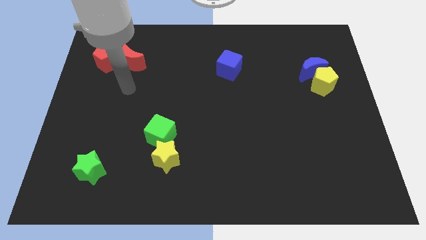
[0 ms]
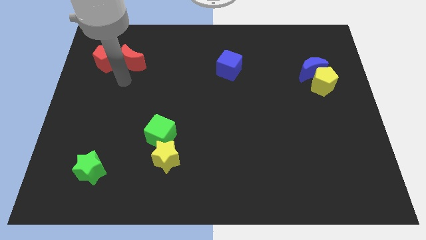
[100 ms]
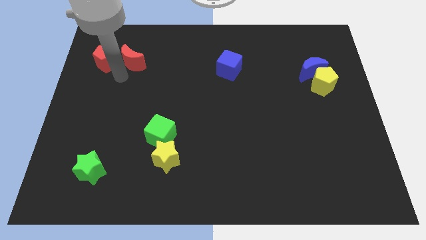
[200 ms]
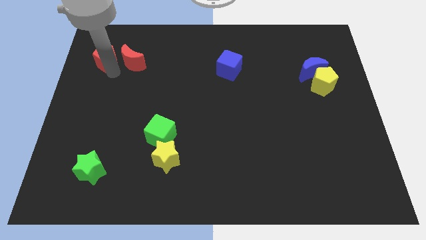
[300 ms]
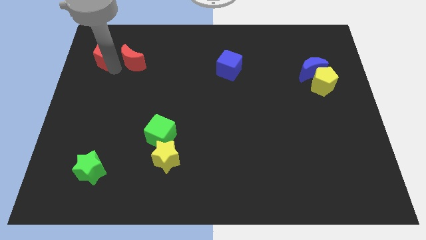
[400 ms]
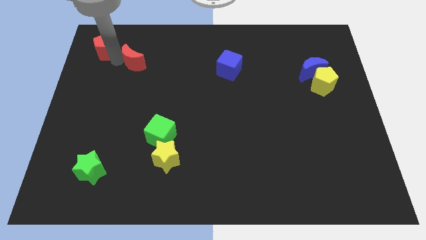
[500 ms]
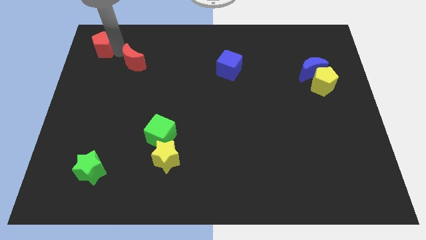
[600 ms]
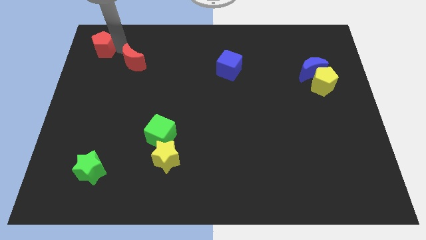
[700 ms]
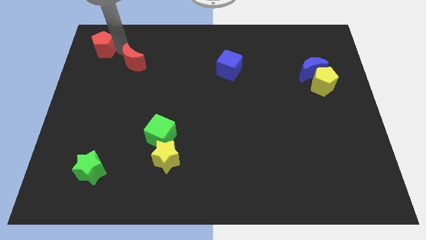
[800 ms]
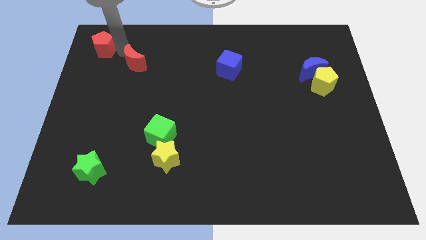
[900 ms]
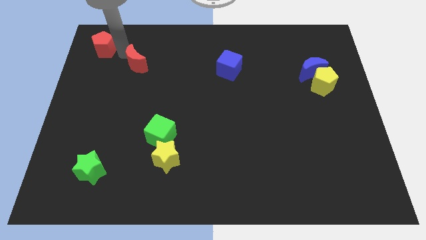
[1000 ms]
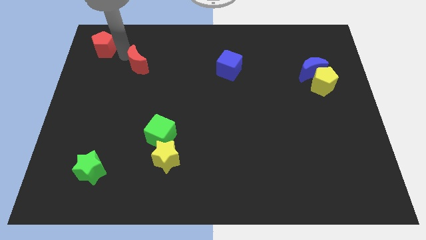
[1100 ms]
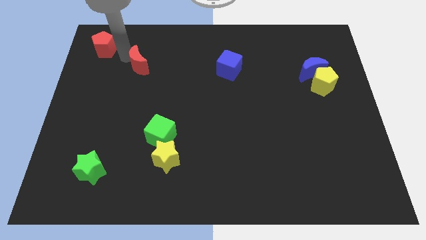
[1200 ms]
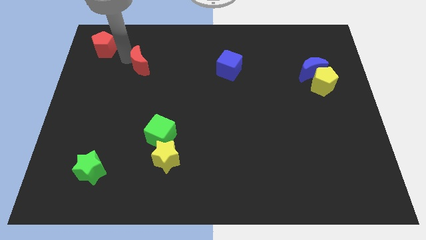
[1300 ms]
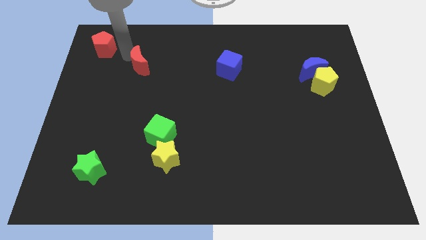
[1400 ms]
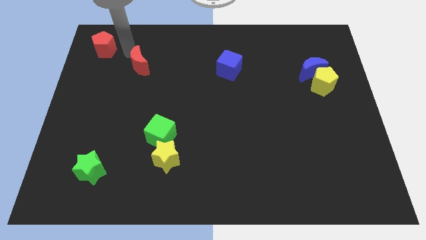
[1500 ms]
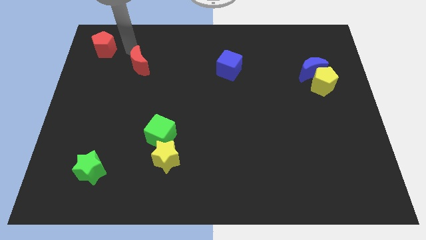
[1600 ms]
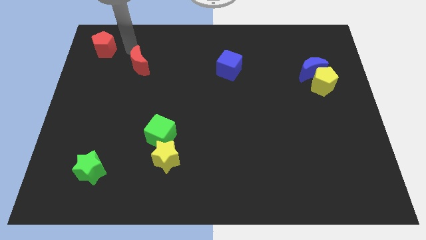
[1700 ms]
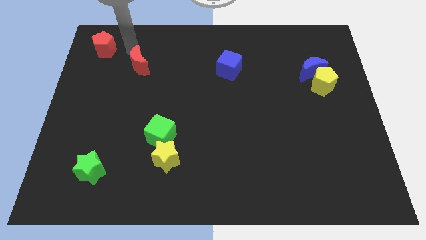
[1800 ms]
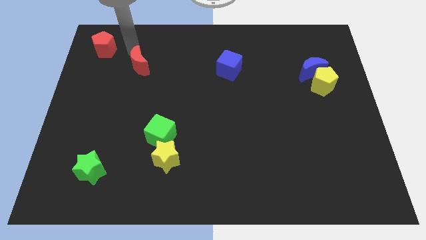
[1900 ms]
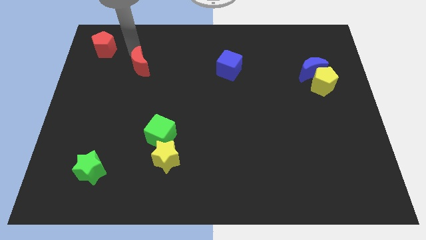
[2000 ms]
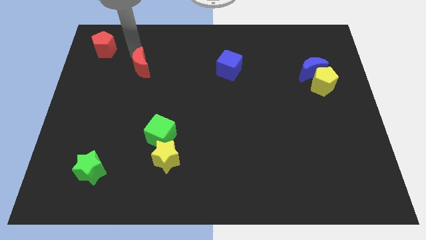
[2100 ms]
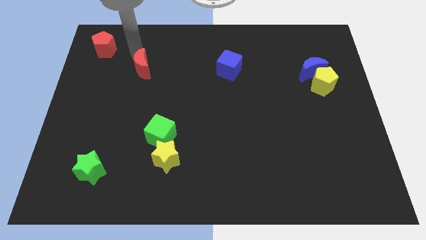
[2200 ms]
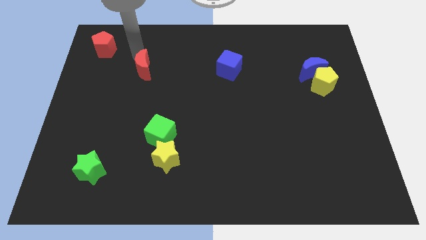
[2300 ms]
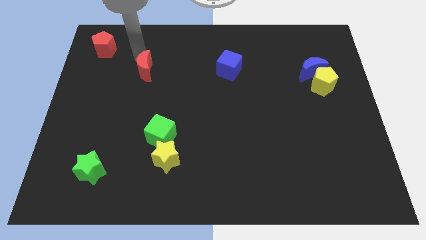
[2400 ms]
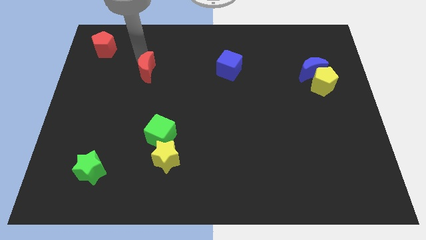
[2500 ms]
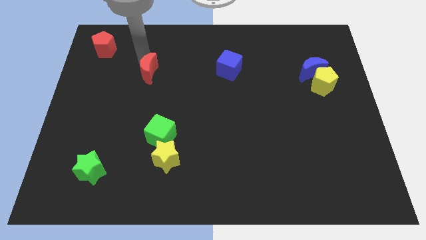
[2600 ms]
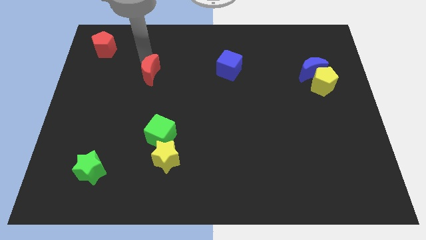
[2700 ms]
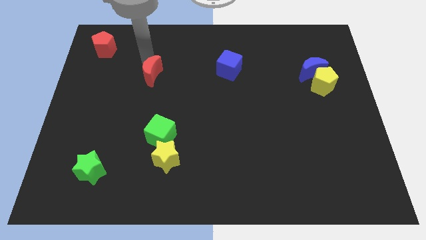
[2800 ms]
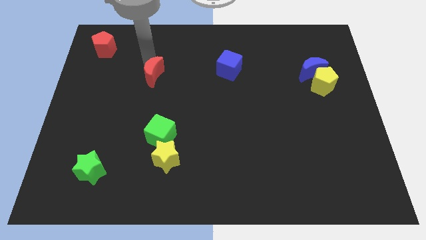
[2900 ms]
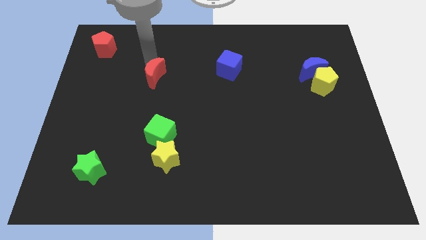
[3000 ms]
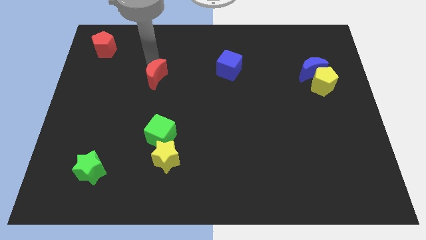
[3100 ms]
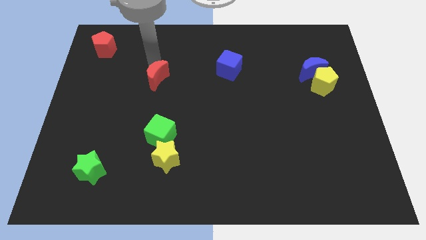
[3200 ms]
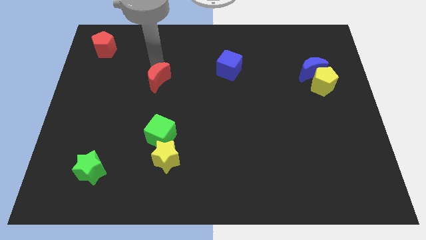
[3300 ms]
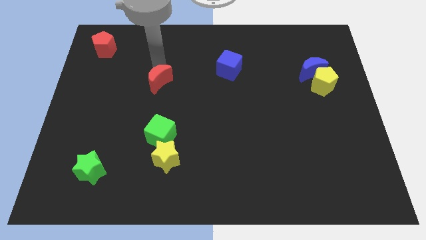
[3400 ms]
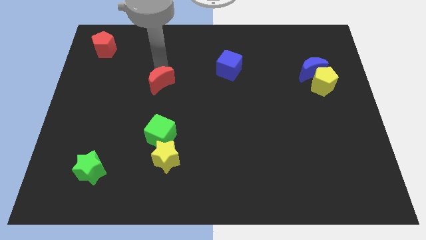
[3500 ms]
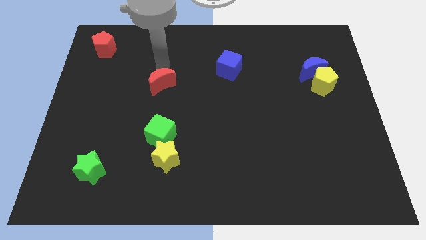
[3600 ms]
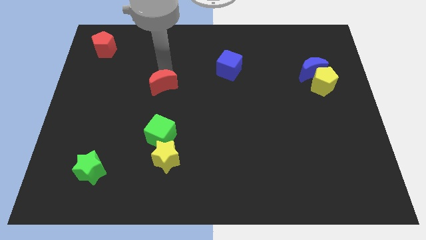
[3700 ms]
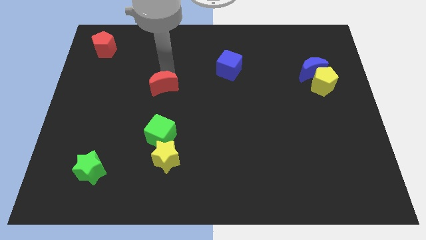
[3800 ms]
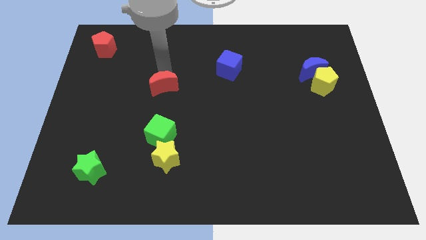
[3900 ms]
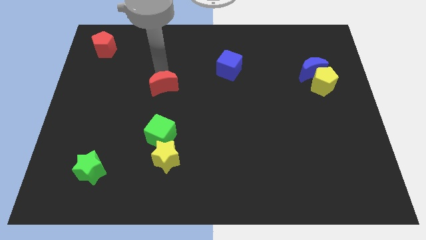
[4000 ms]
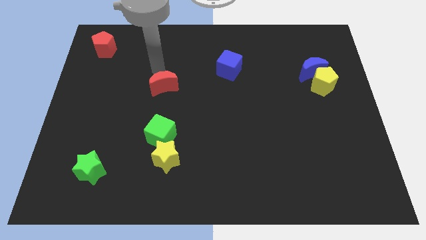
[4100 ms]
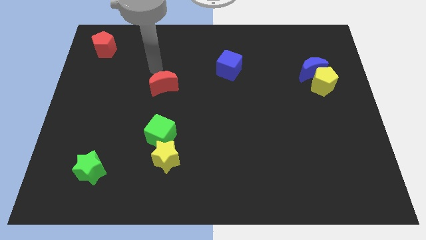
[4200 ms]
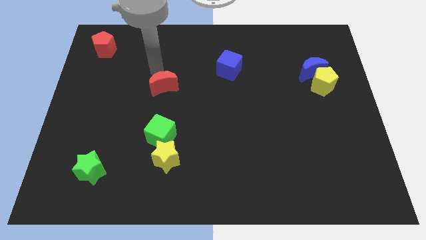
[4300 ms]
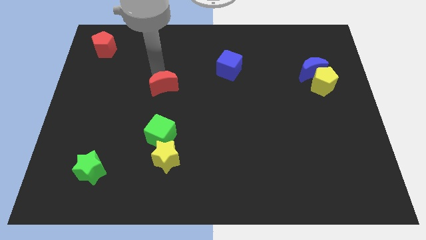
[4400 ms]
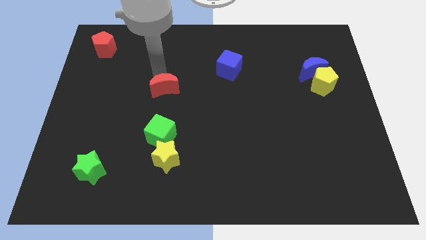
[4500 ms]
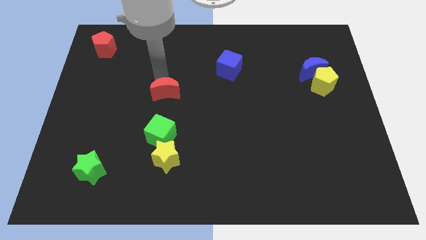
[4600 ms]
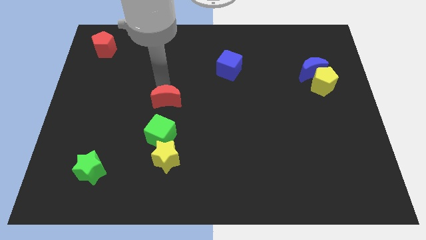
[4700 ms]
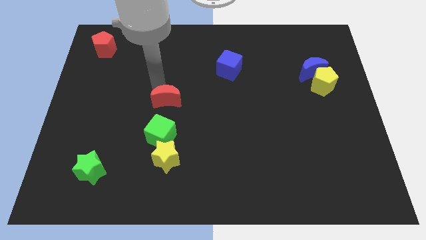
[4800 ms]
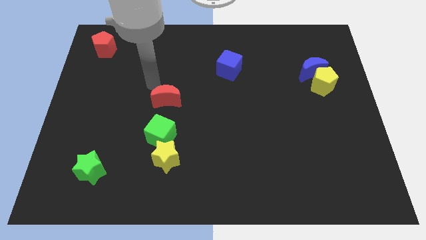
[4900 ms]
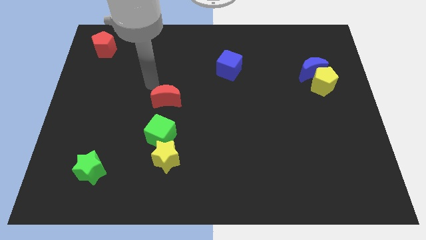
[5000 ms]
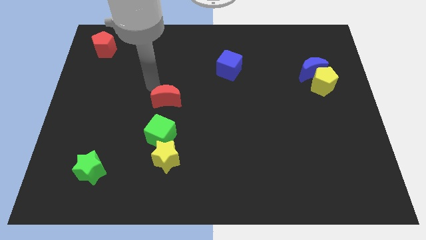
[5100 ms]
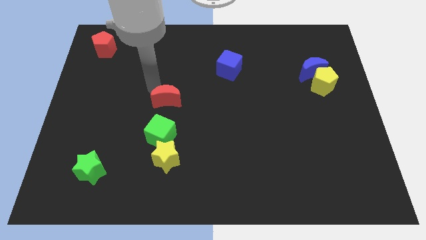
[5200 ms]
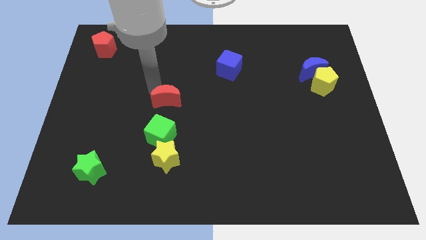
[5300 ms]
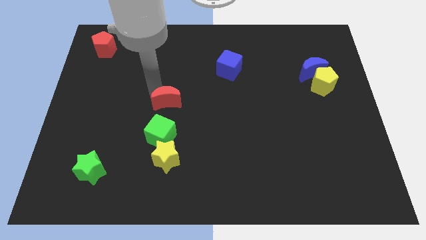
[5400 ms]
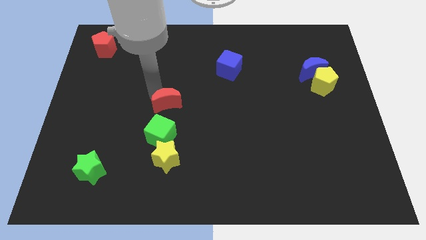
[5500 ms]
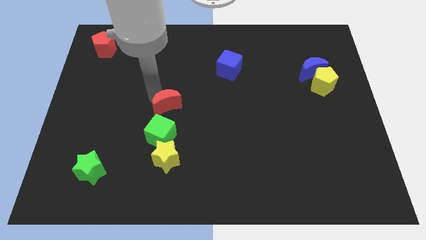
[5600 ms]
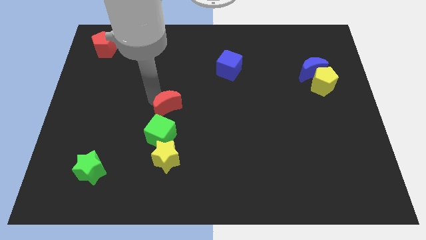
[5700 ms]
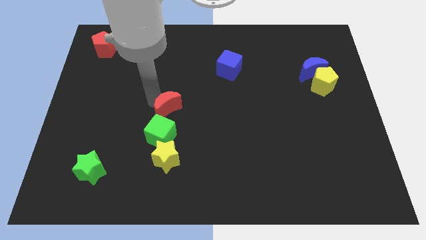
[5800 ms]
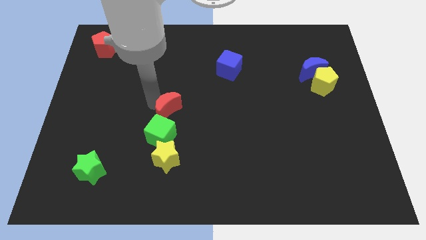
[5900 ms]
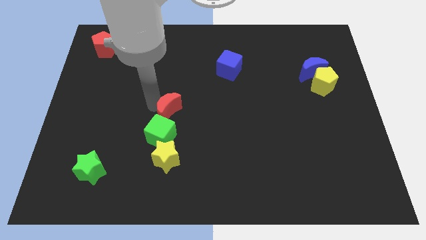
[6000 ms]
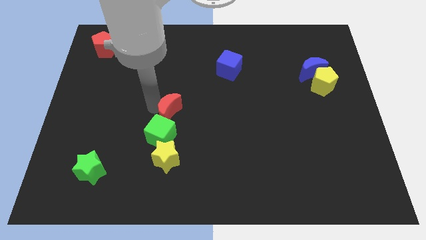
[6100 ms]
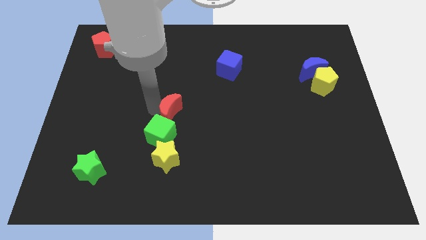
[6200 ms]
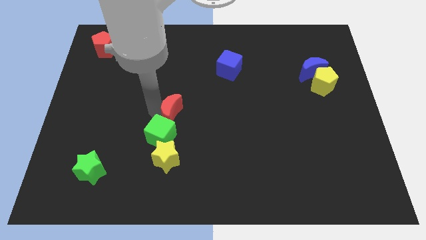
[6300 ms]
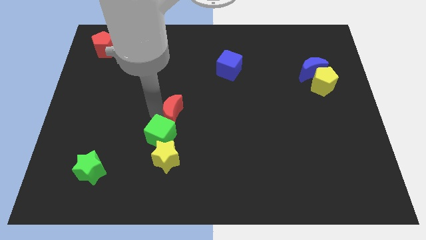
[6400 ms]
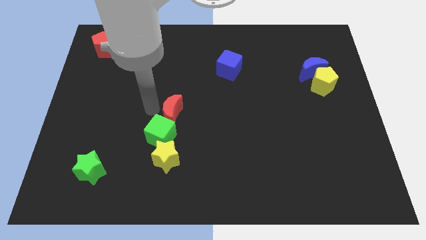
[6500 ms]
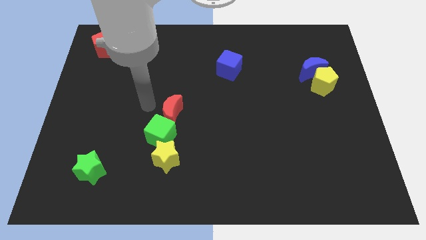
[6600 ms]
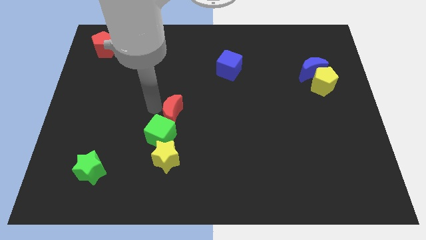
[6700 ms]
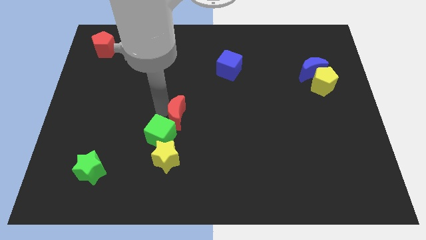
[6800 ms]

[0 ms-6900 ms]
push the red moon down and then to the right

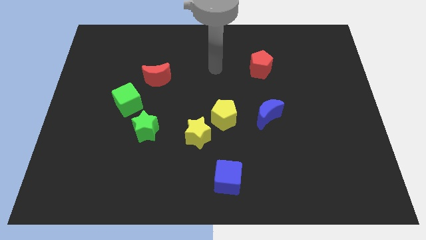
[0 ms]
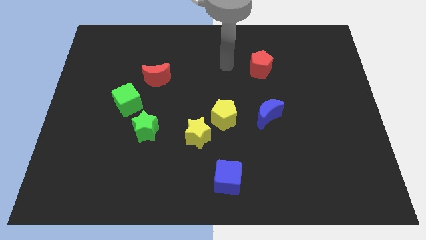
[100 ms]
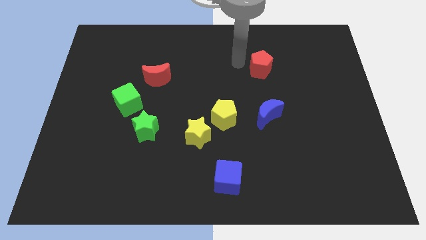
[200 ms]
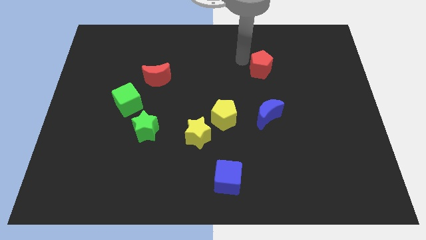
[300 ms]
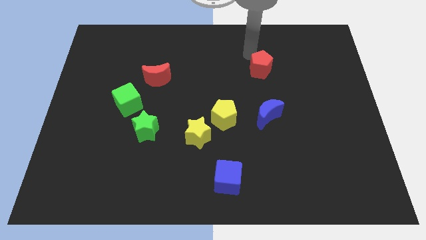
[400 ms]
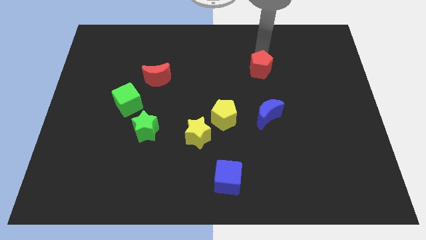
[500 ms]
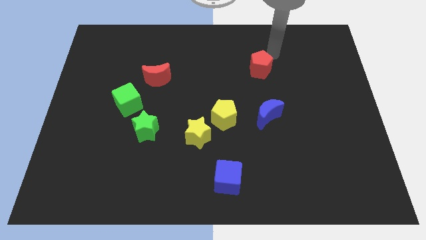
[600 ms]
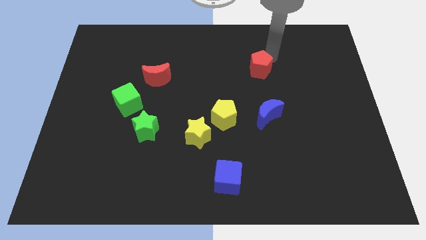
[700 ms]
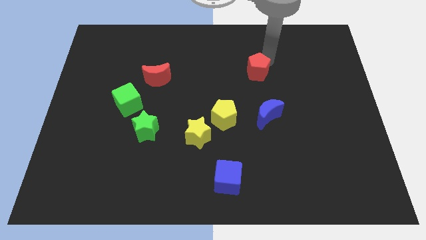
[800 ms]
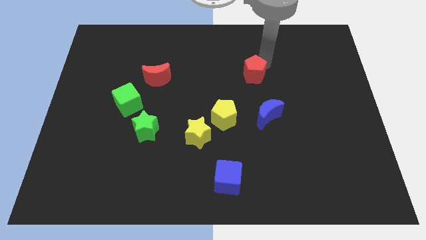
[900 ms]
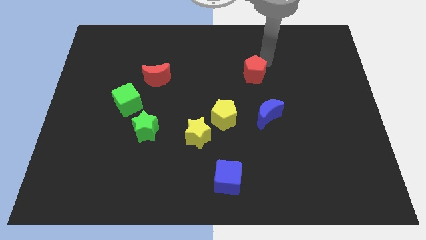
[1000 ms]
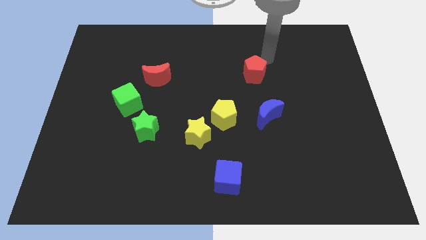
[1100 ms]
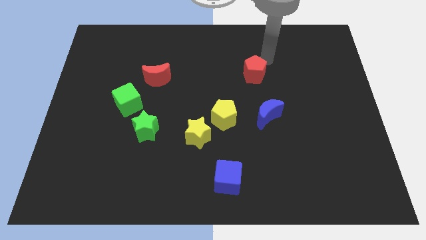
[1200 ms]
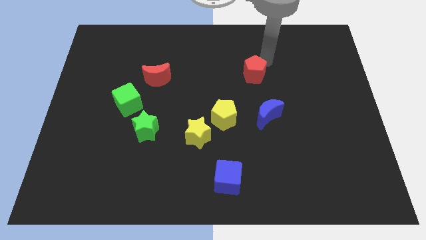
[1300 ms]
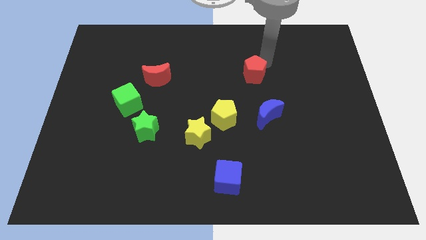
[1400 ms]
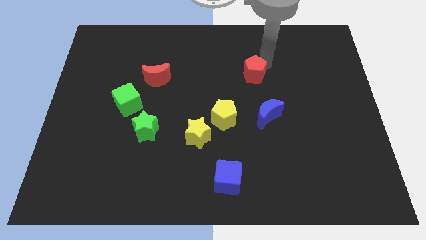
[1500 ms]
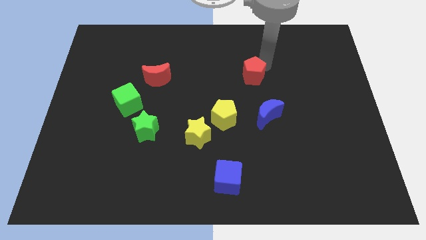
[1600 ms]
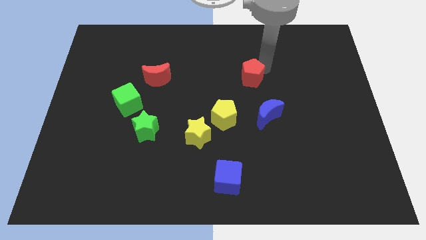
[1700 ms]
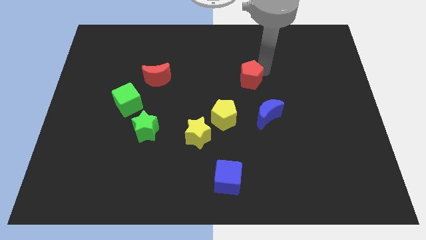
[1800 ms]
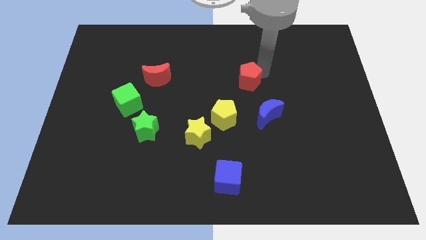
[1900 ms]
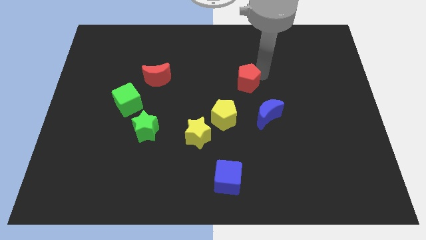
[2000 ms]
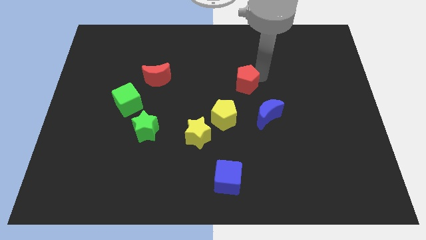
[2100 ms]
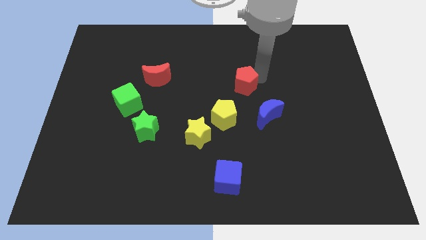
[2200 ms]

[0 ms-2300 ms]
slide the red pentagon down and then to the left slightly
